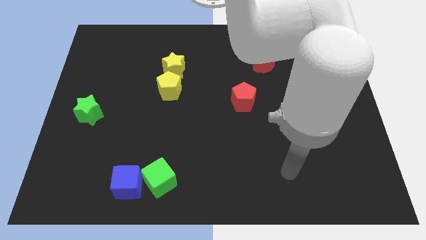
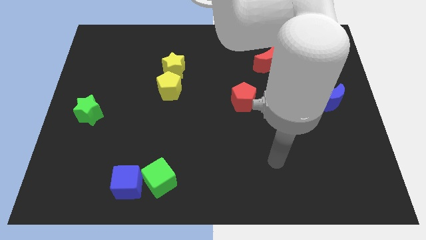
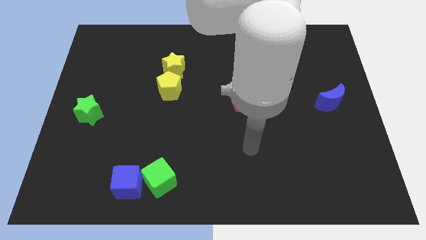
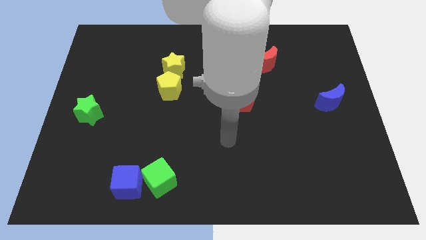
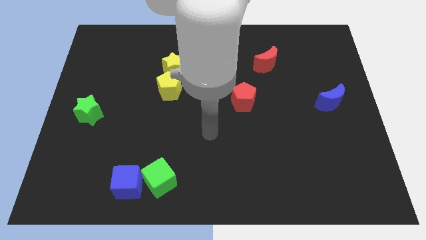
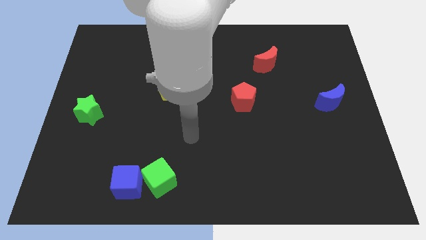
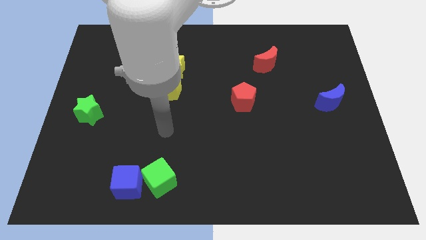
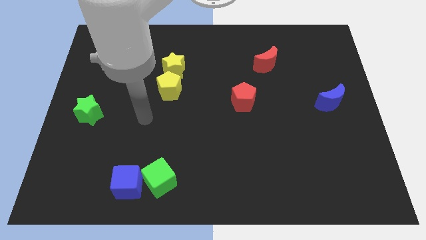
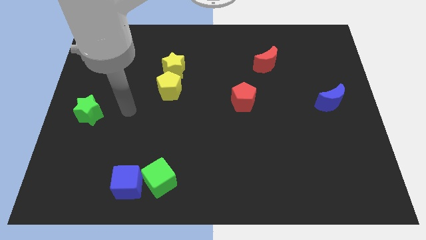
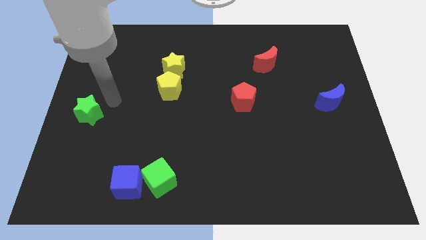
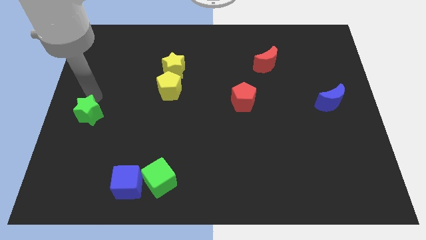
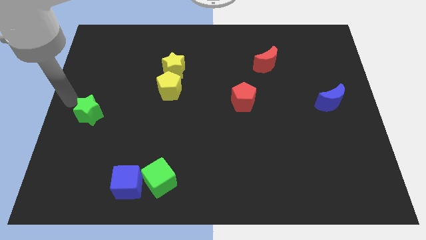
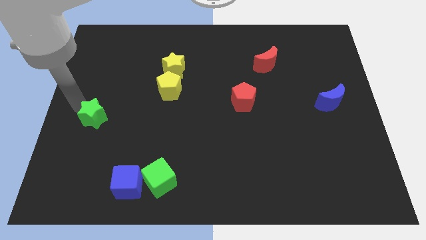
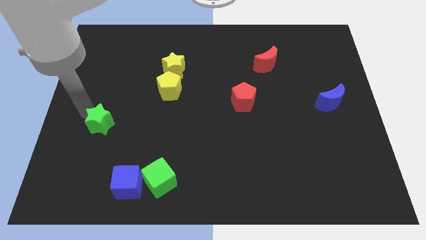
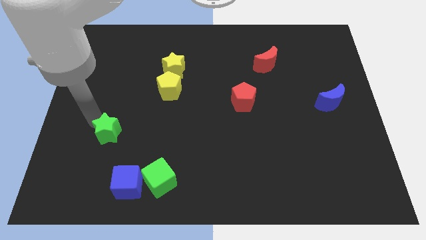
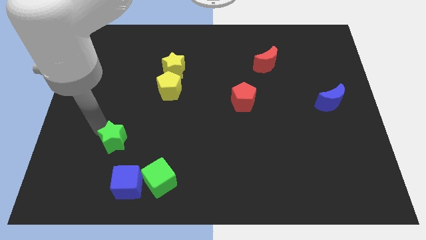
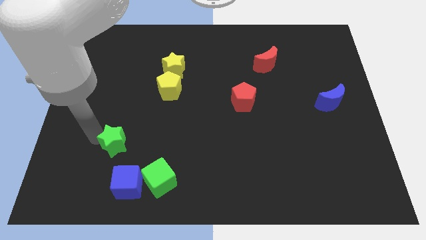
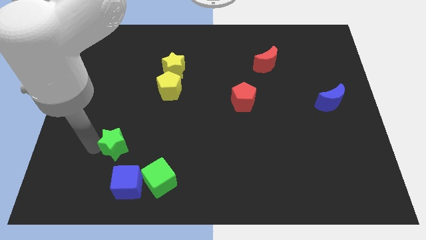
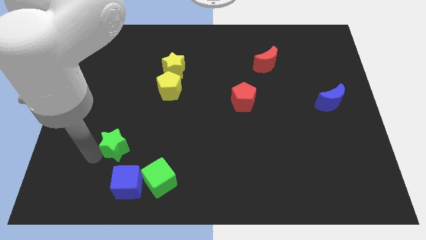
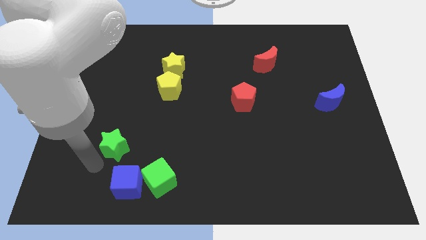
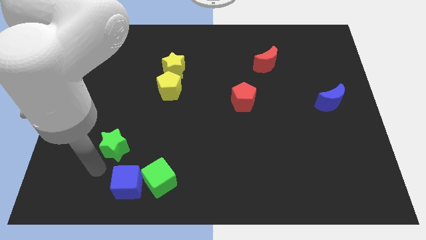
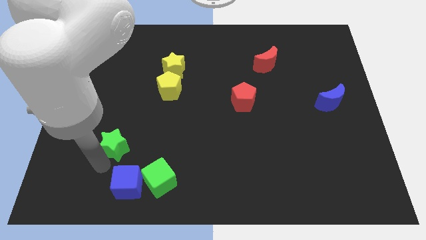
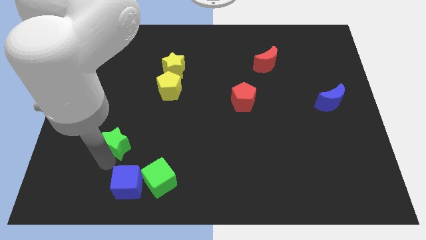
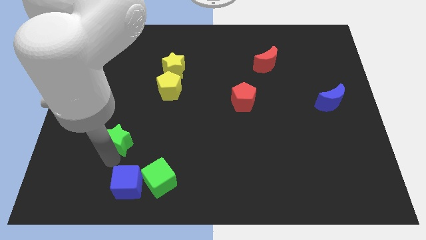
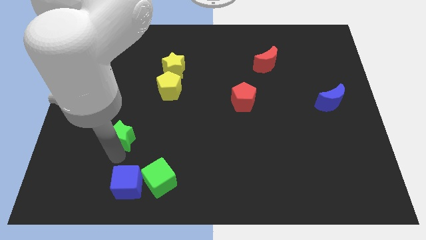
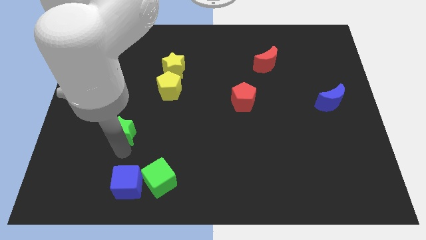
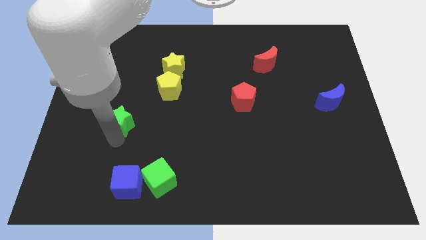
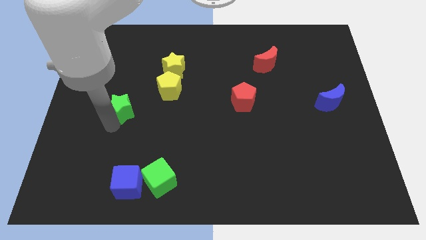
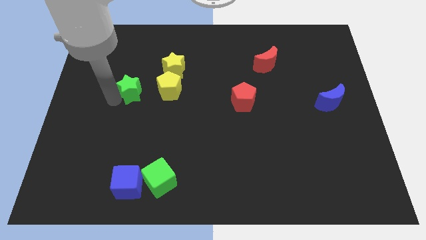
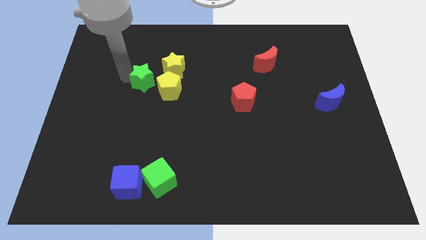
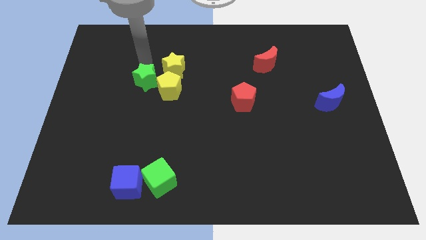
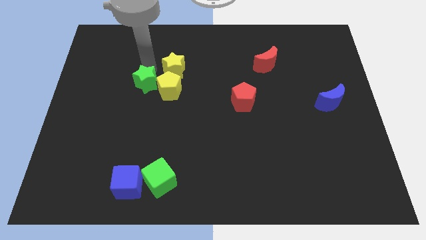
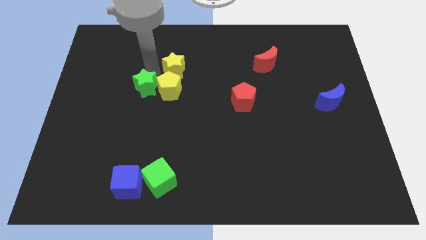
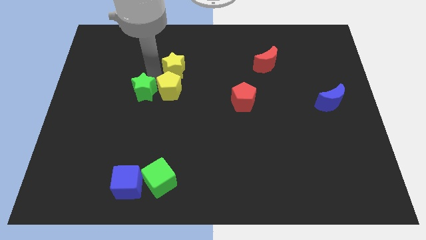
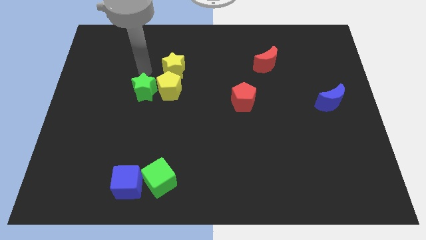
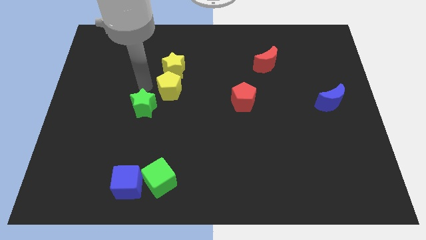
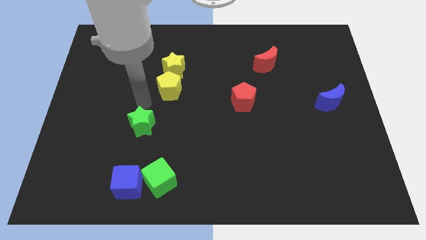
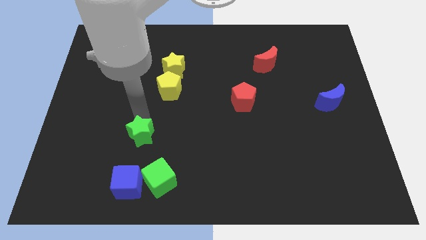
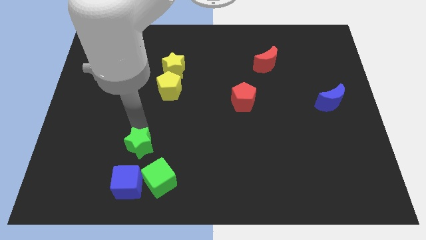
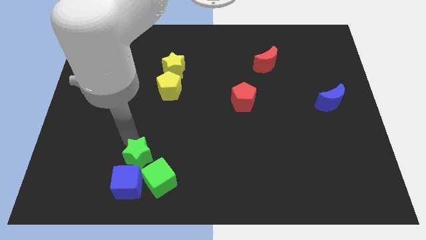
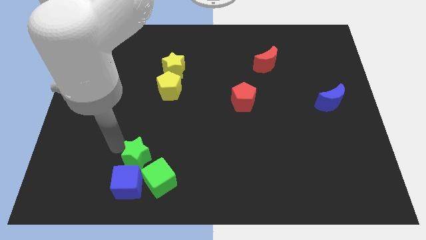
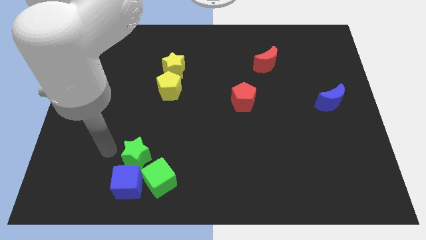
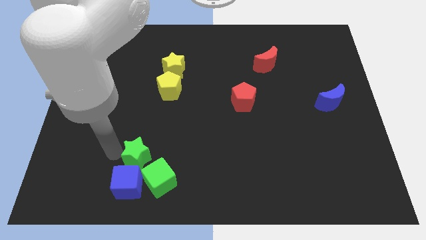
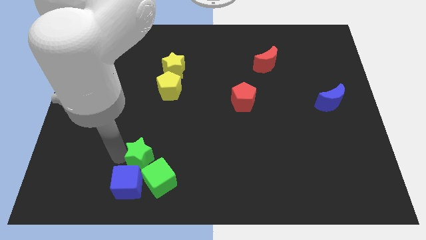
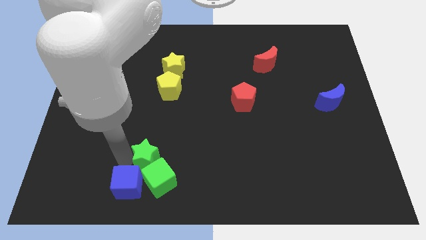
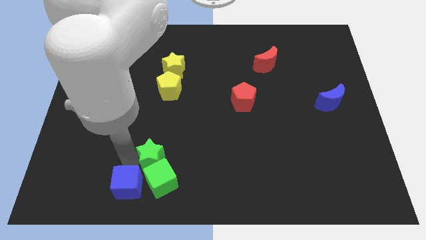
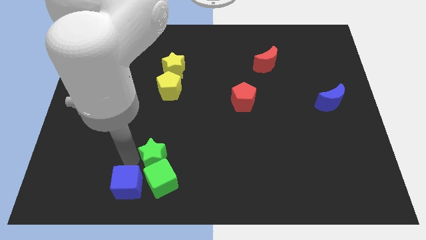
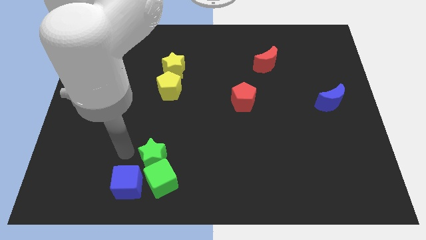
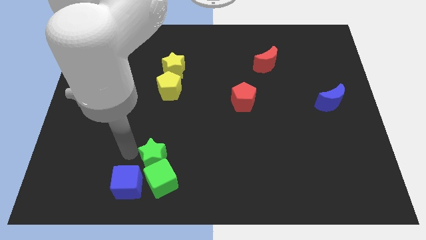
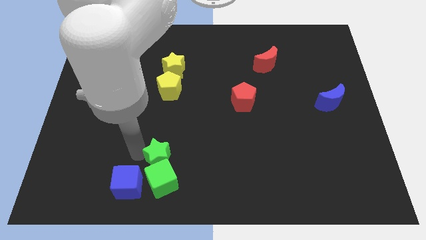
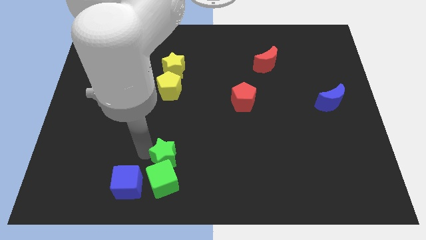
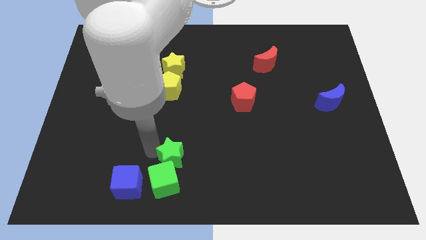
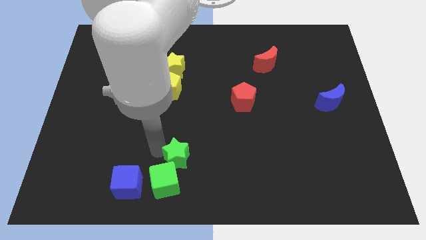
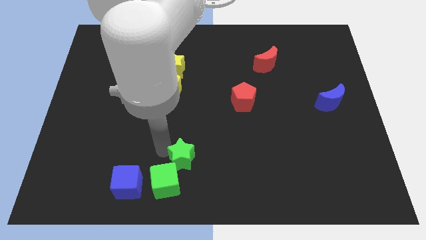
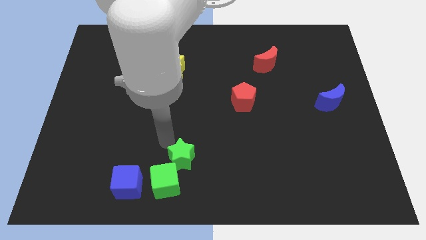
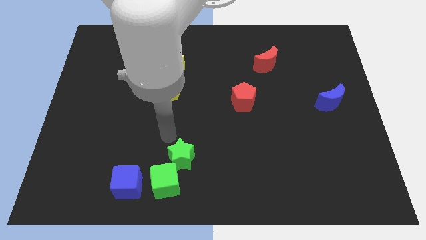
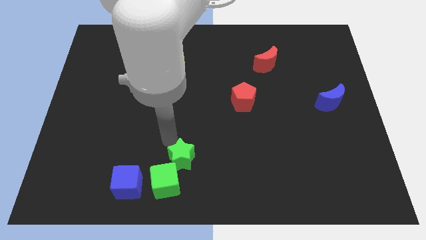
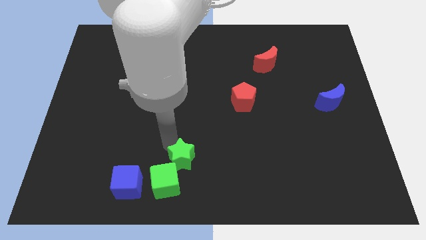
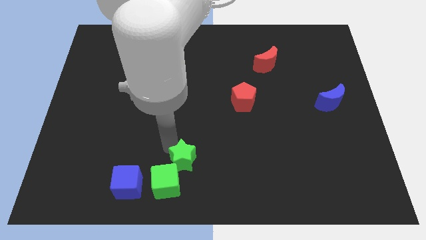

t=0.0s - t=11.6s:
slide the green star to the bottom side

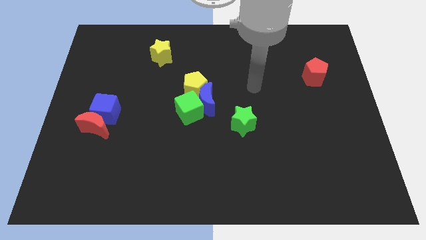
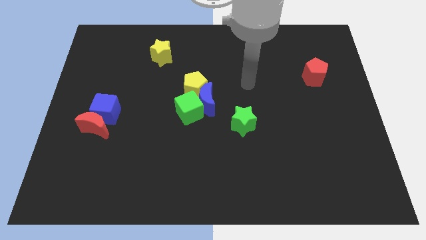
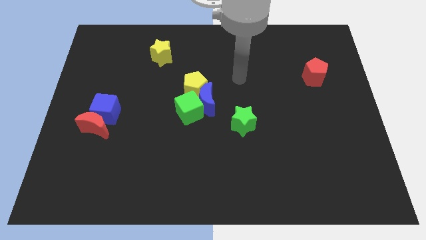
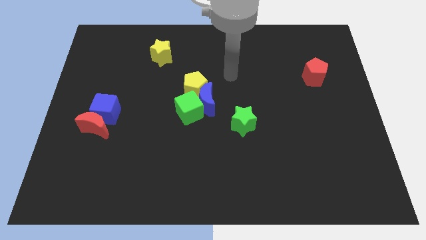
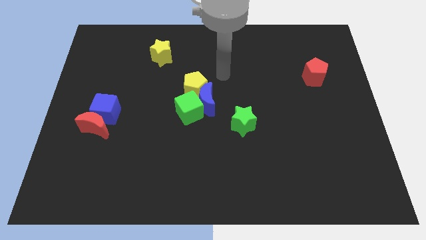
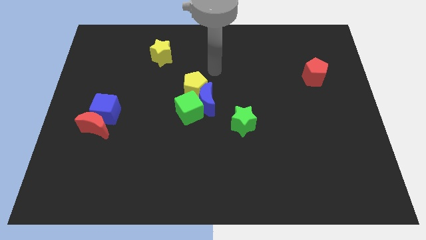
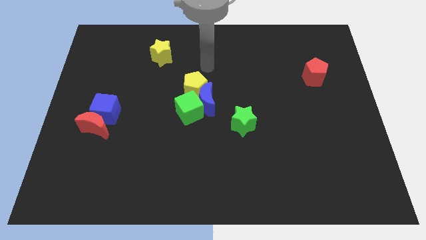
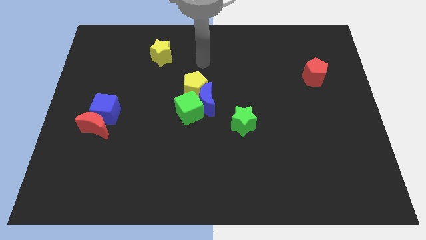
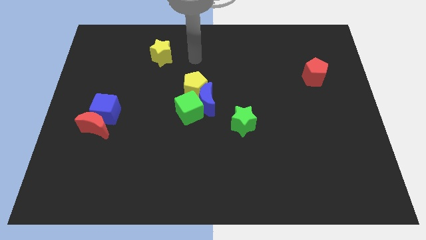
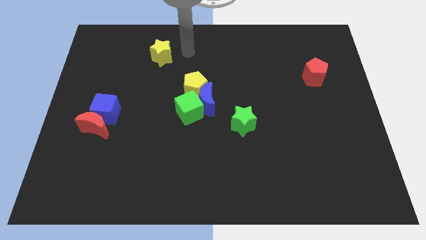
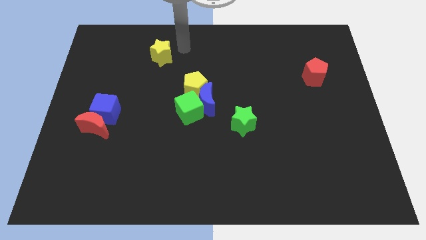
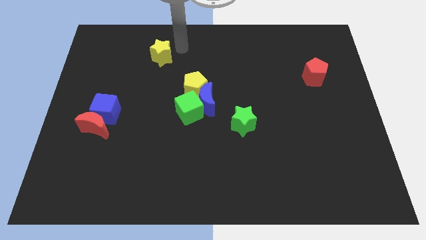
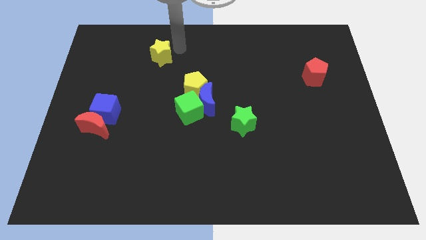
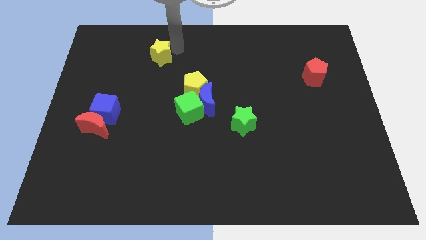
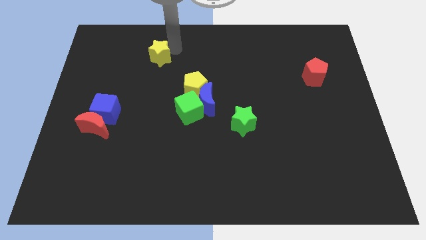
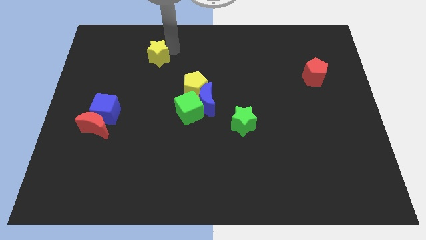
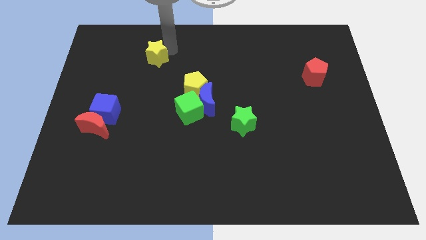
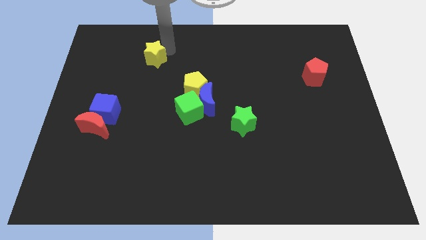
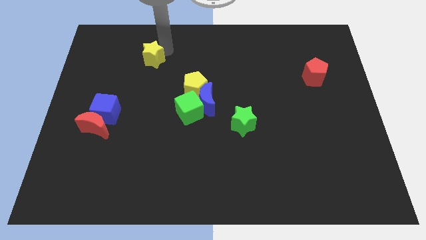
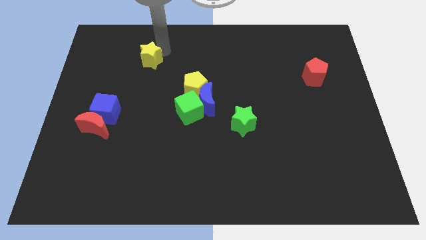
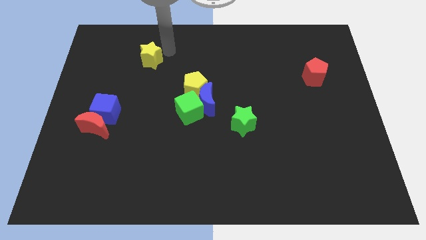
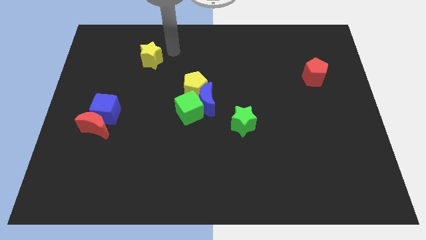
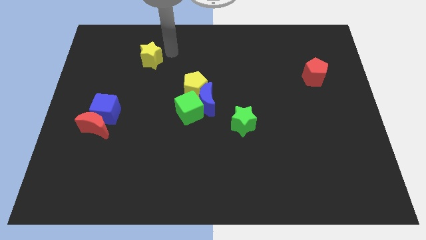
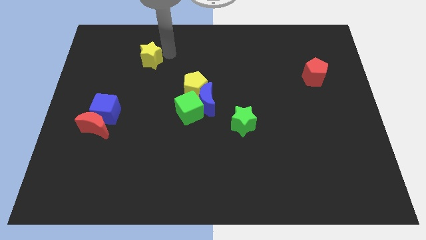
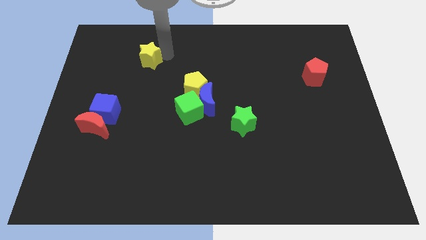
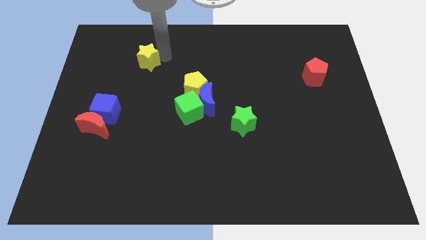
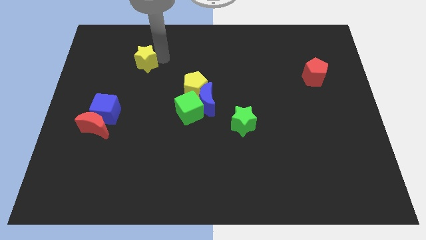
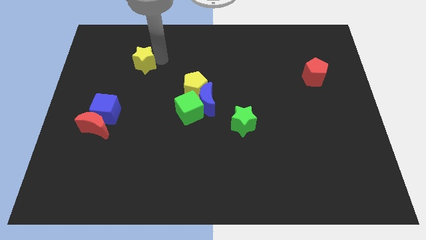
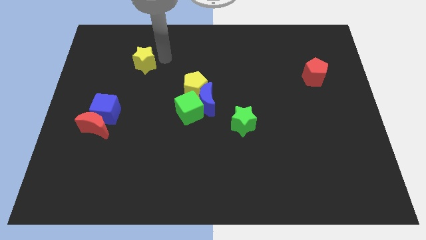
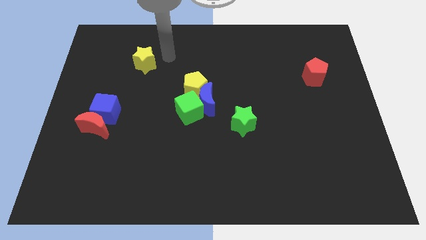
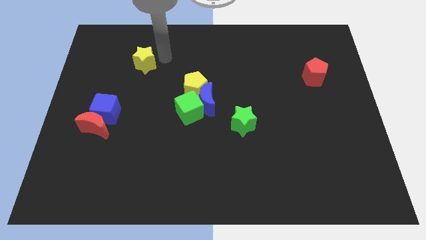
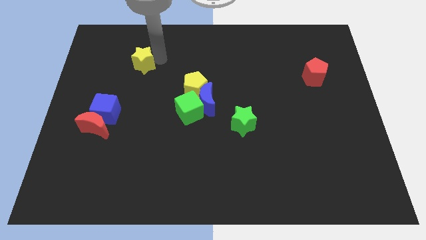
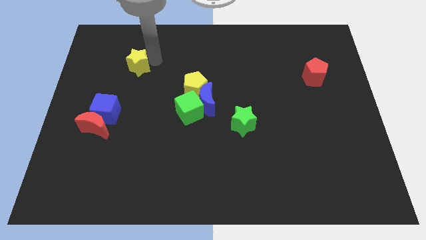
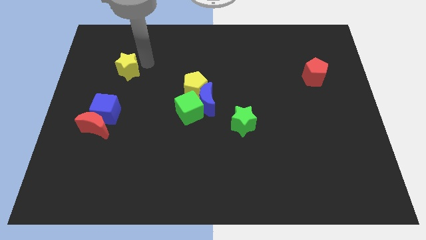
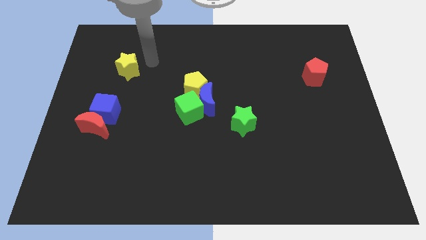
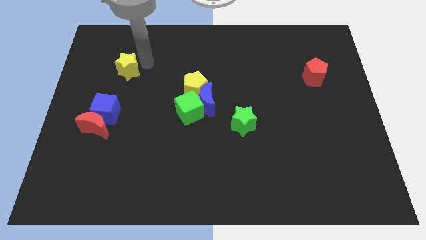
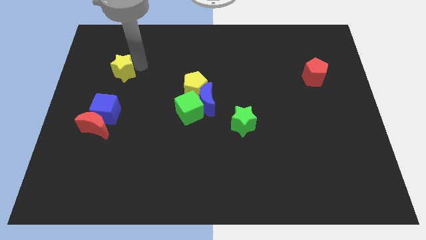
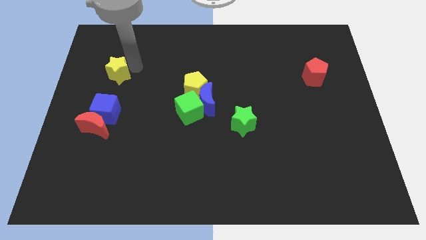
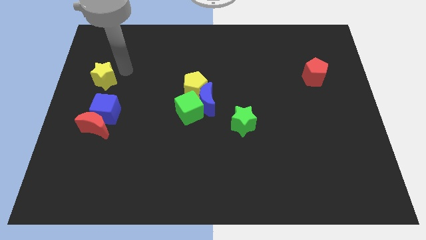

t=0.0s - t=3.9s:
push the yellow star to the left side of the board
